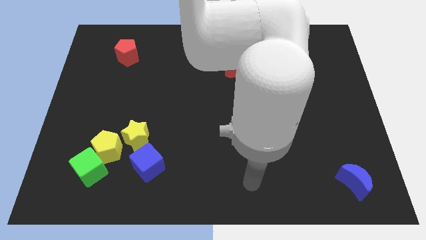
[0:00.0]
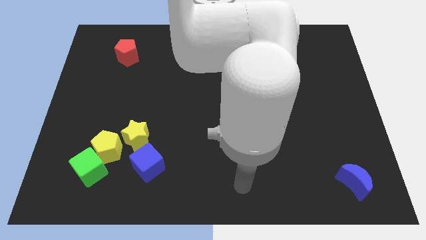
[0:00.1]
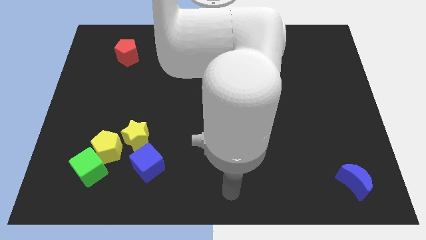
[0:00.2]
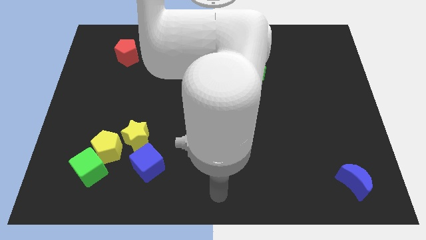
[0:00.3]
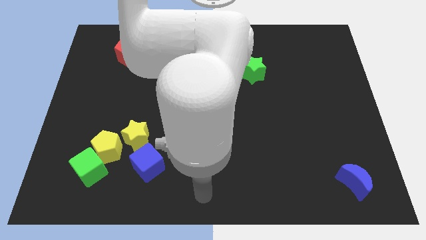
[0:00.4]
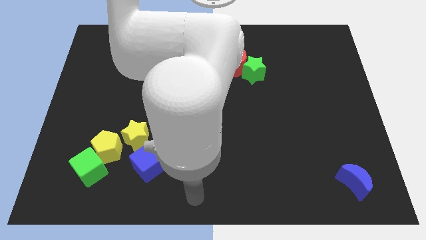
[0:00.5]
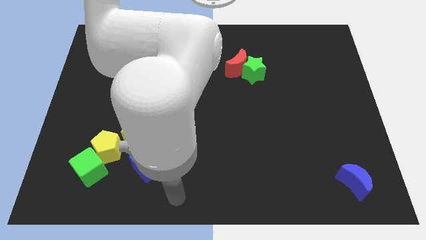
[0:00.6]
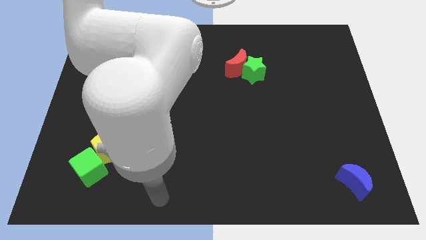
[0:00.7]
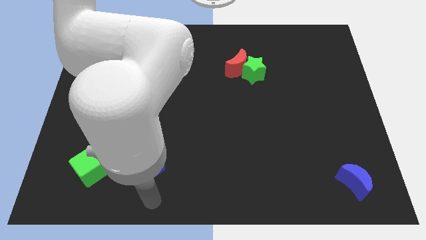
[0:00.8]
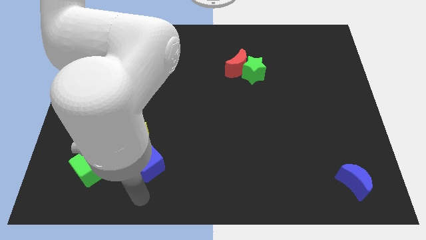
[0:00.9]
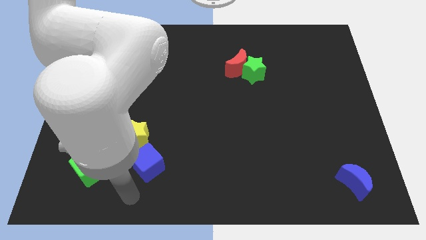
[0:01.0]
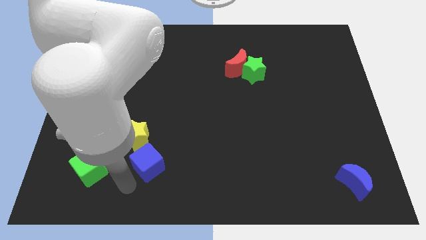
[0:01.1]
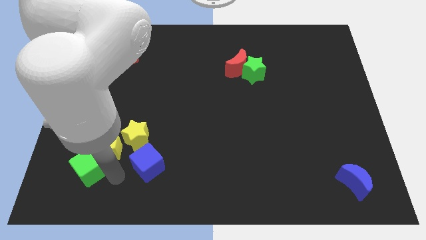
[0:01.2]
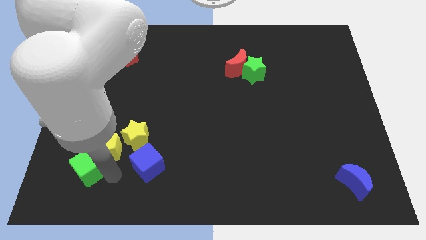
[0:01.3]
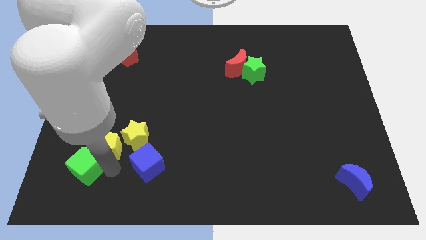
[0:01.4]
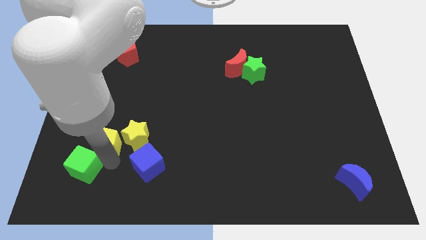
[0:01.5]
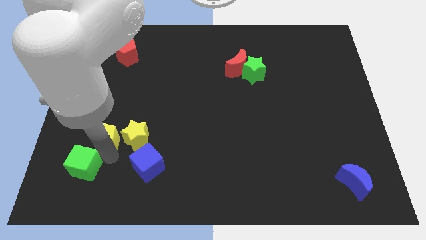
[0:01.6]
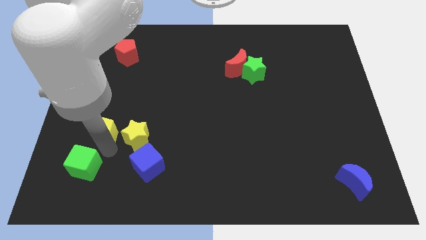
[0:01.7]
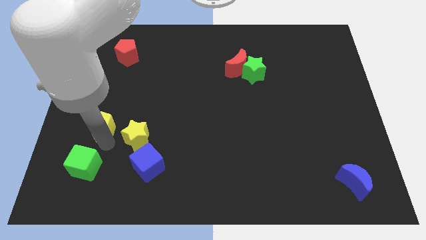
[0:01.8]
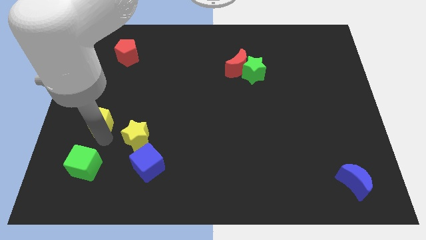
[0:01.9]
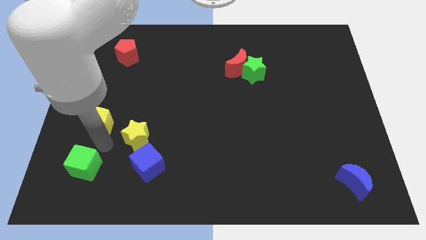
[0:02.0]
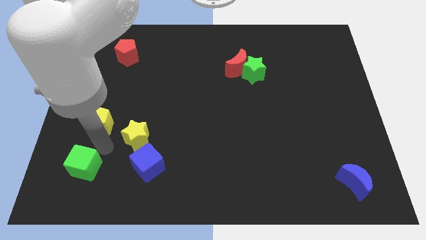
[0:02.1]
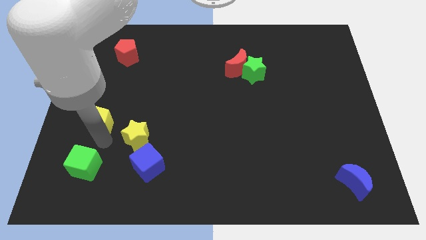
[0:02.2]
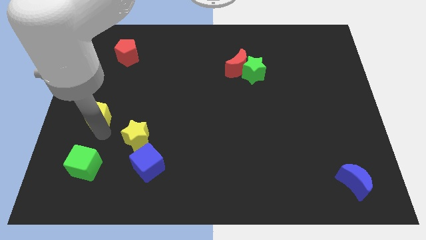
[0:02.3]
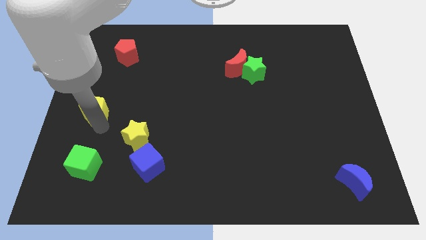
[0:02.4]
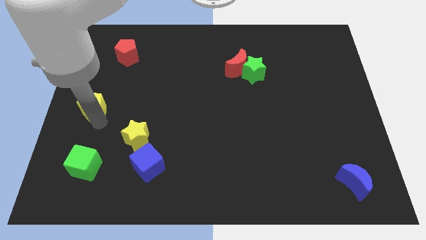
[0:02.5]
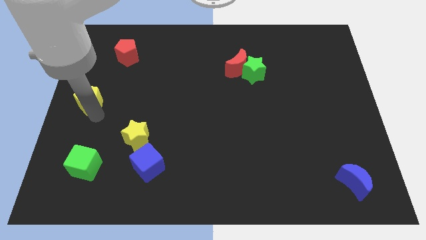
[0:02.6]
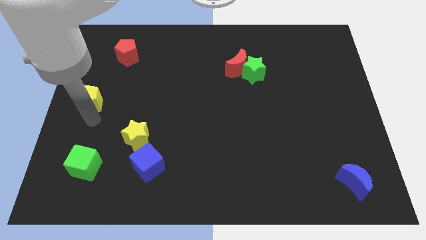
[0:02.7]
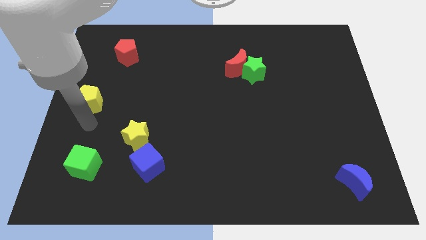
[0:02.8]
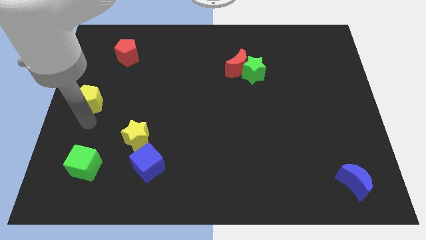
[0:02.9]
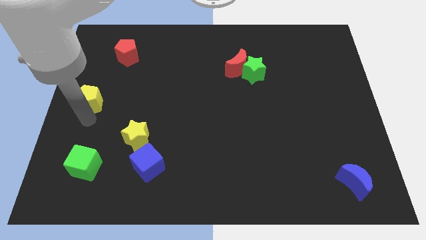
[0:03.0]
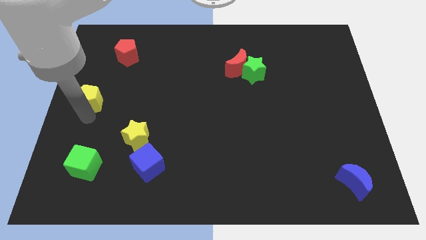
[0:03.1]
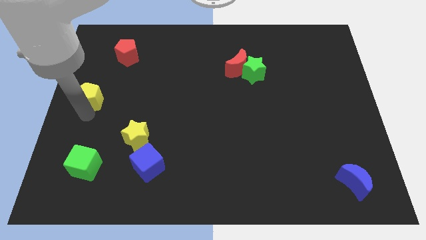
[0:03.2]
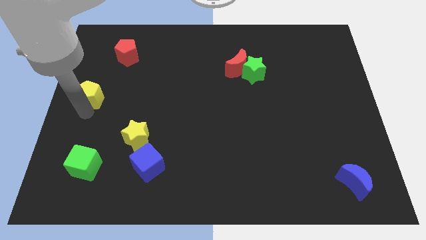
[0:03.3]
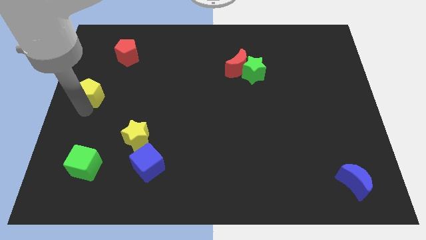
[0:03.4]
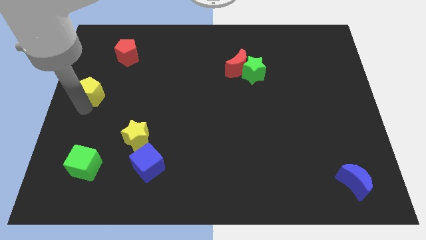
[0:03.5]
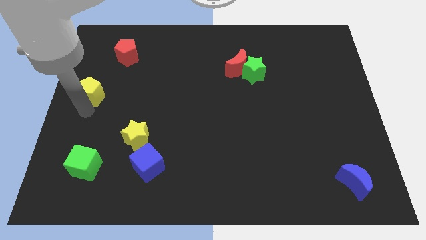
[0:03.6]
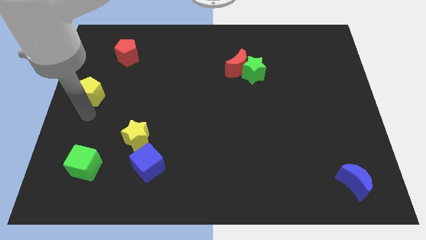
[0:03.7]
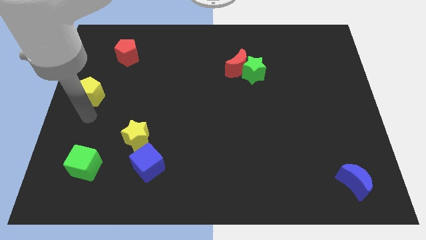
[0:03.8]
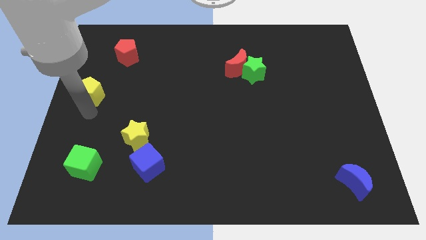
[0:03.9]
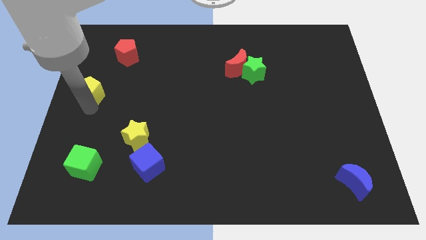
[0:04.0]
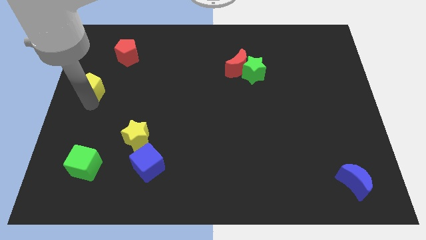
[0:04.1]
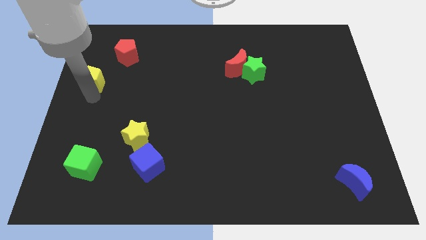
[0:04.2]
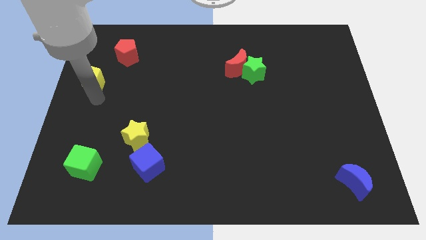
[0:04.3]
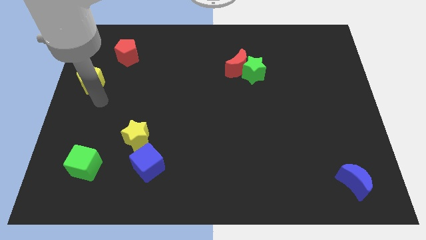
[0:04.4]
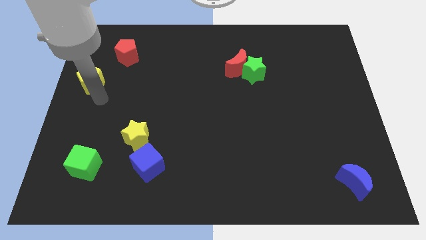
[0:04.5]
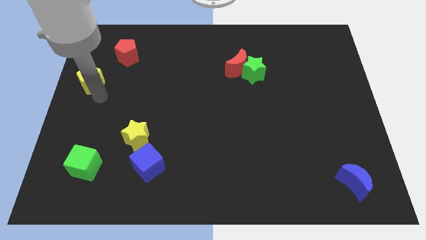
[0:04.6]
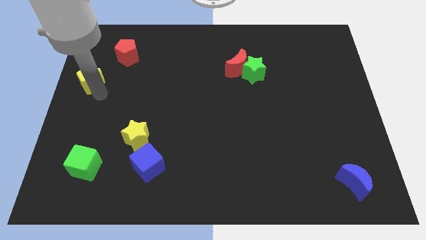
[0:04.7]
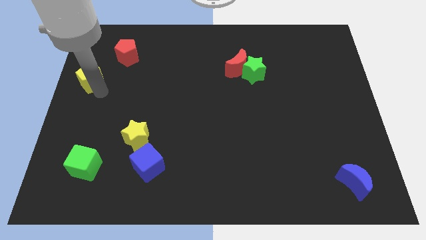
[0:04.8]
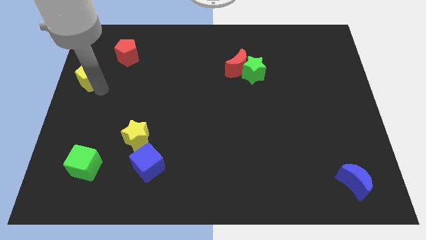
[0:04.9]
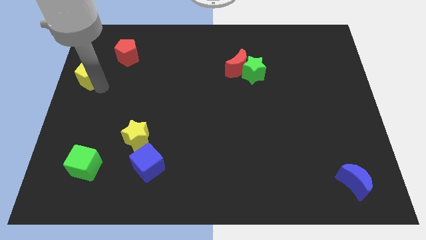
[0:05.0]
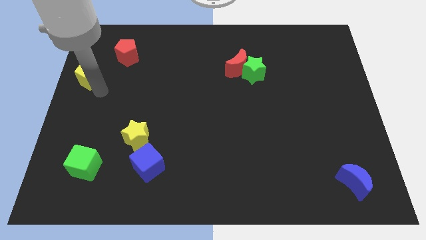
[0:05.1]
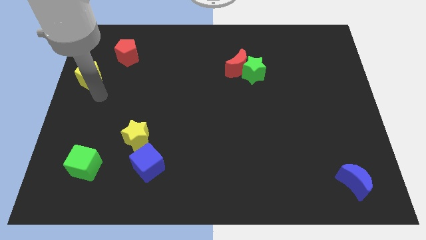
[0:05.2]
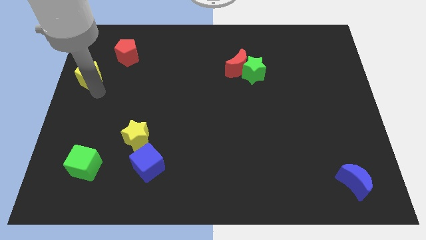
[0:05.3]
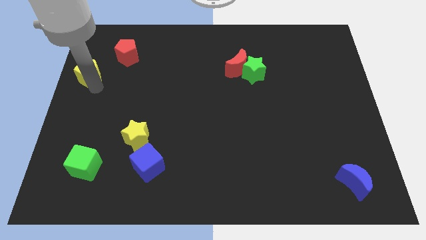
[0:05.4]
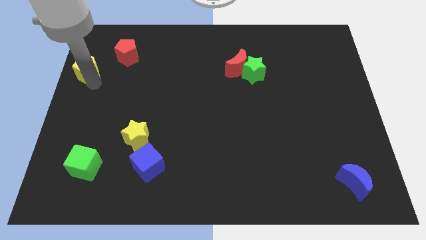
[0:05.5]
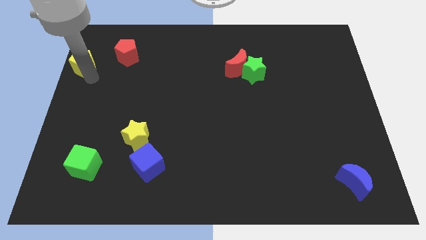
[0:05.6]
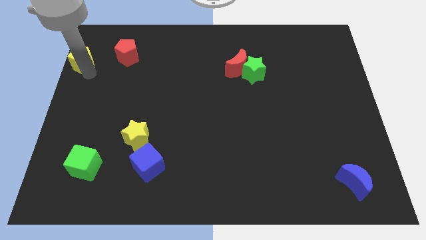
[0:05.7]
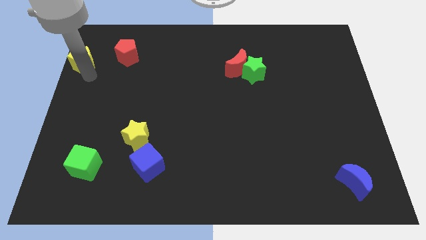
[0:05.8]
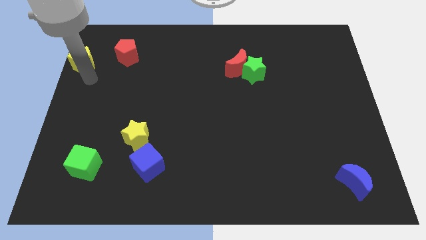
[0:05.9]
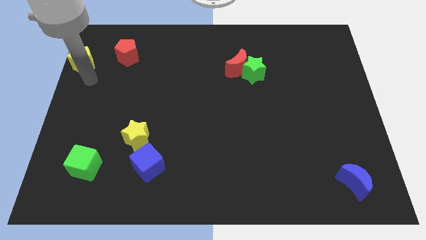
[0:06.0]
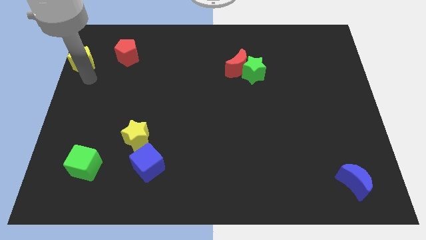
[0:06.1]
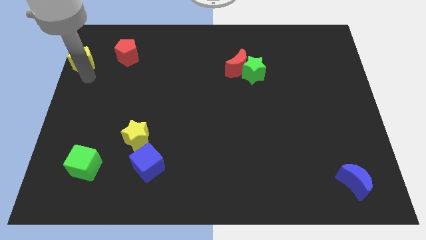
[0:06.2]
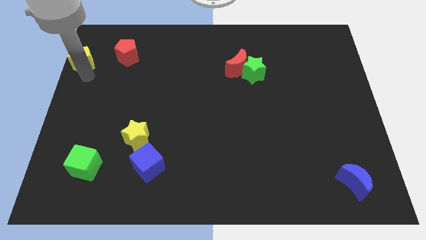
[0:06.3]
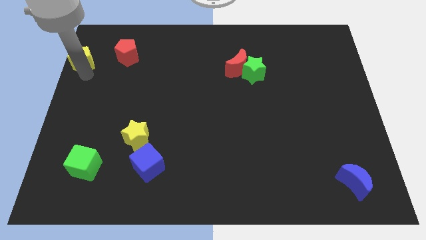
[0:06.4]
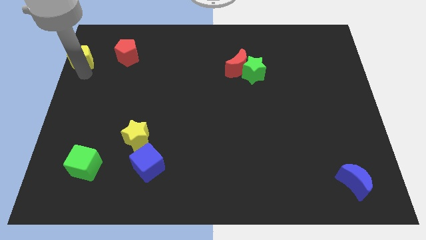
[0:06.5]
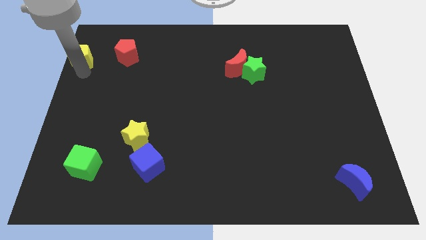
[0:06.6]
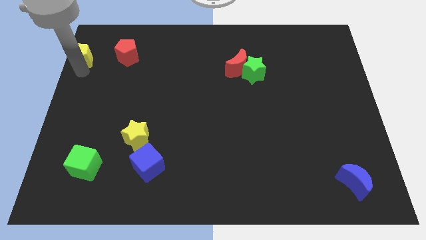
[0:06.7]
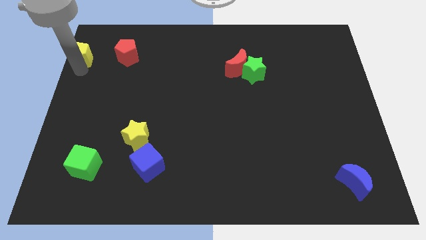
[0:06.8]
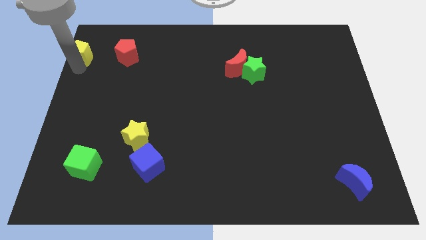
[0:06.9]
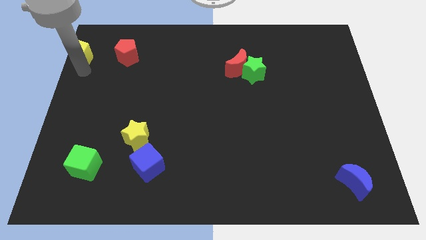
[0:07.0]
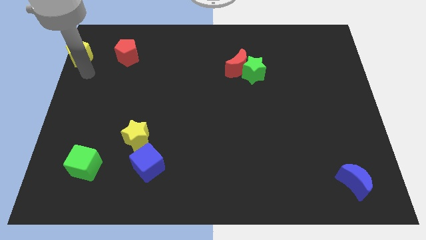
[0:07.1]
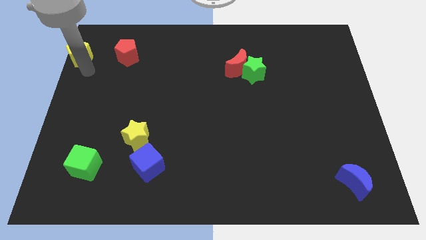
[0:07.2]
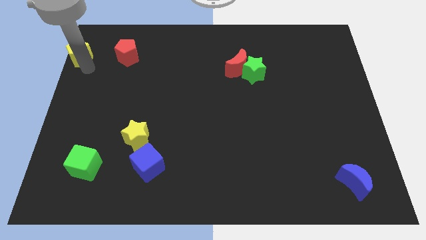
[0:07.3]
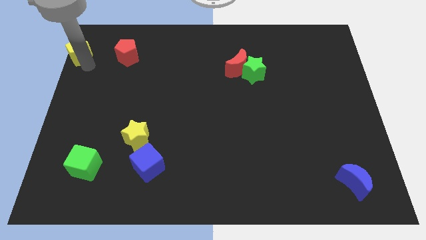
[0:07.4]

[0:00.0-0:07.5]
push the yellow pentagon to the top left
